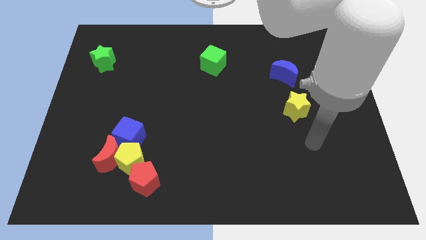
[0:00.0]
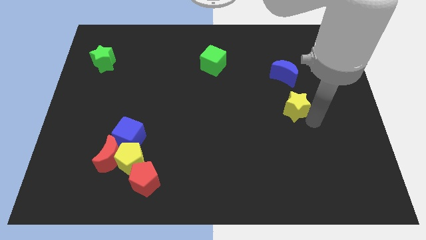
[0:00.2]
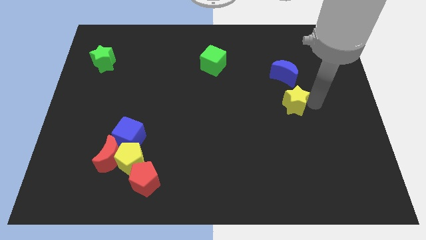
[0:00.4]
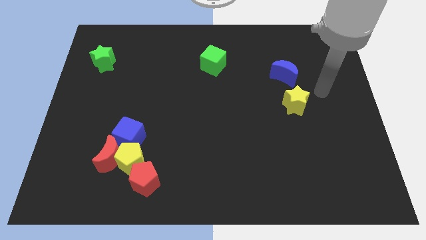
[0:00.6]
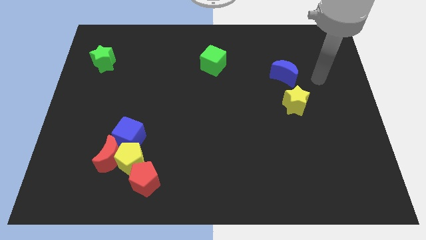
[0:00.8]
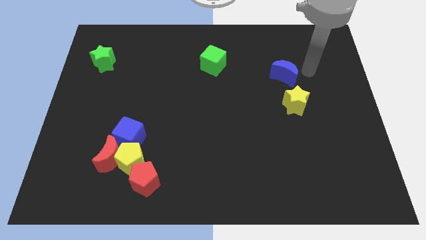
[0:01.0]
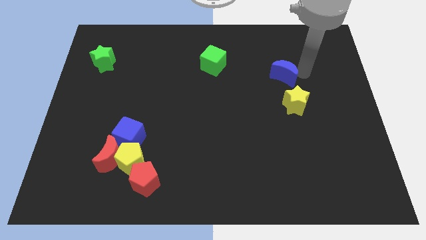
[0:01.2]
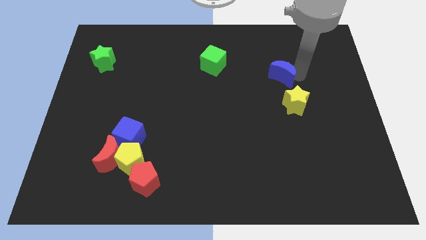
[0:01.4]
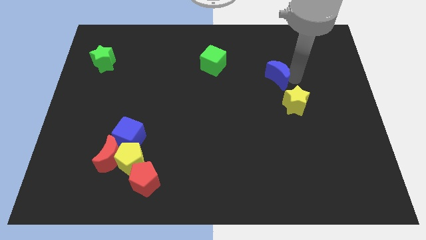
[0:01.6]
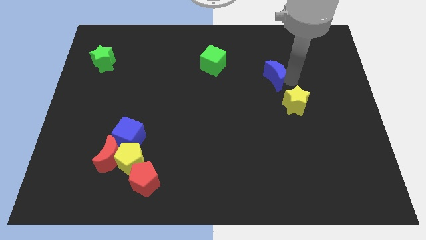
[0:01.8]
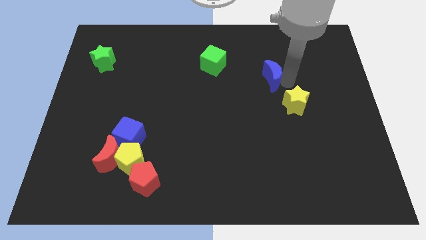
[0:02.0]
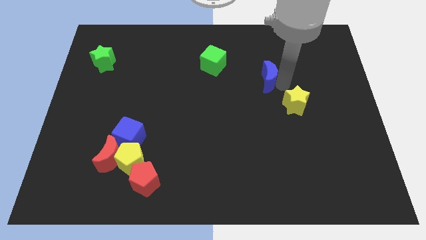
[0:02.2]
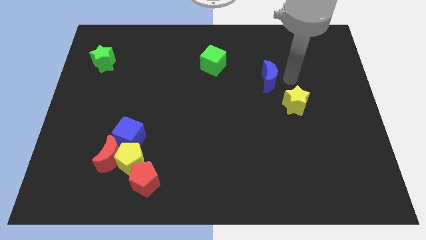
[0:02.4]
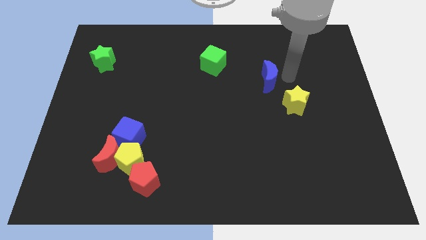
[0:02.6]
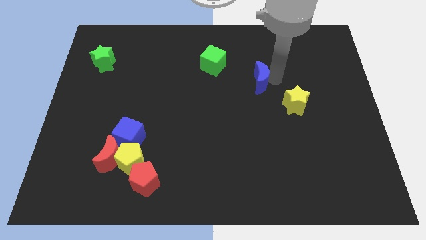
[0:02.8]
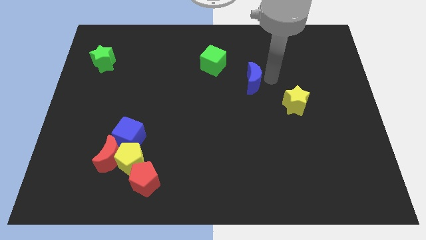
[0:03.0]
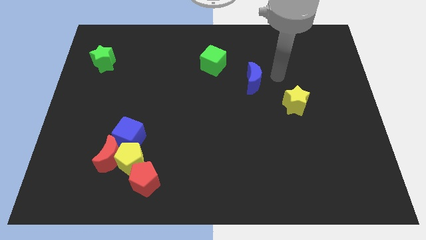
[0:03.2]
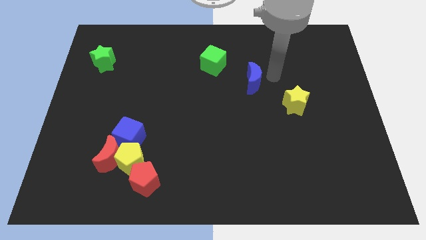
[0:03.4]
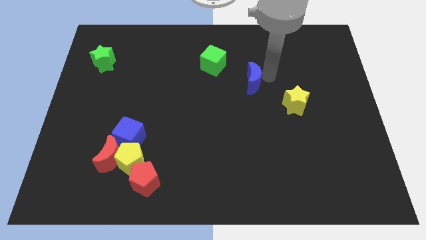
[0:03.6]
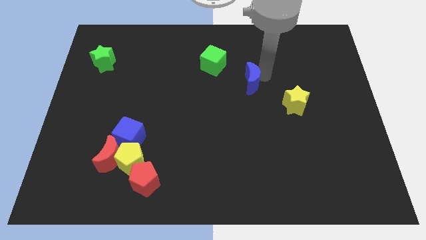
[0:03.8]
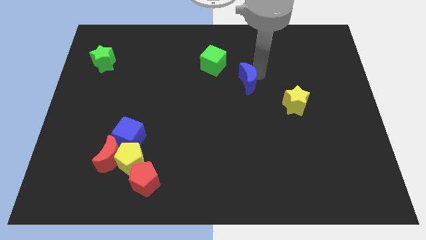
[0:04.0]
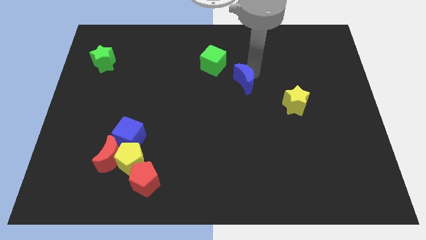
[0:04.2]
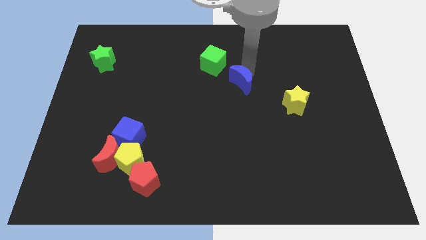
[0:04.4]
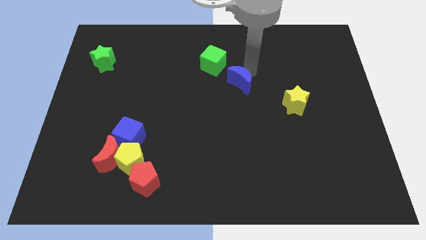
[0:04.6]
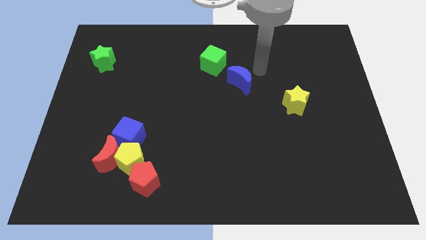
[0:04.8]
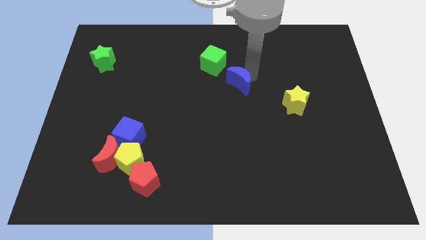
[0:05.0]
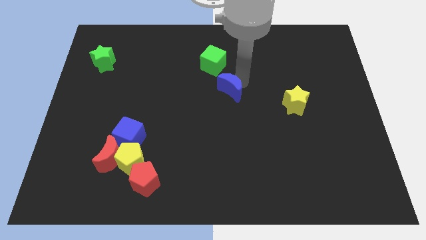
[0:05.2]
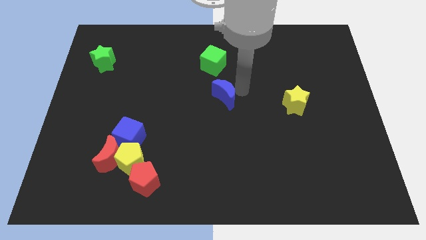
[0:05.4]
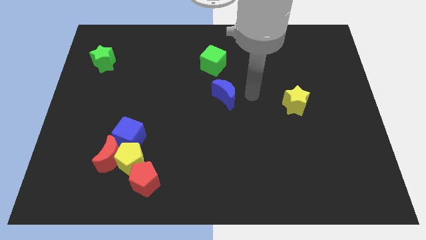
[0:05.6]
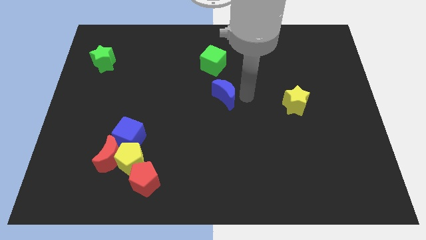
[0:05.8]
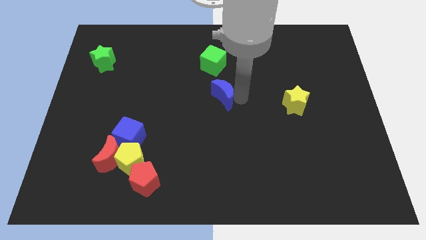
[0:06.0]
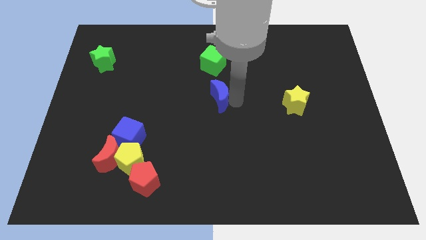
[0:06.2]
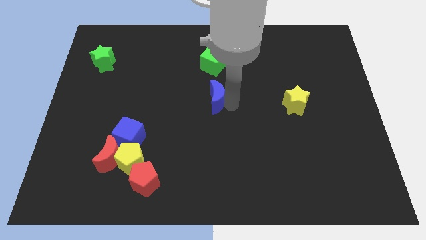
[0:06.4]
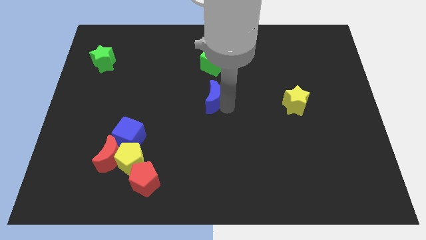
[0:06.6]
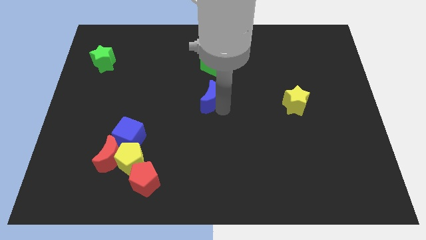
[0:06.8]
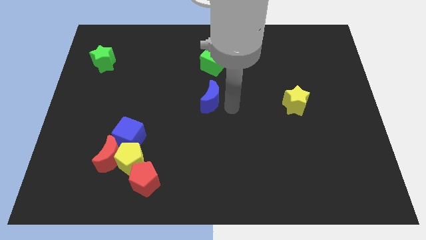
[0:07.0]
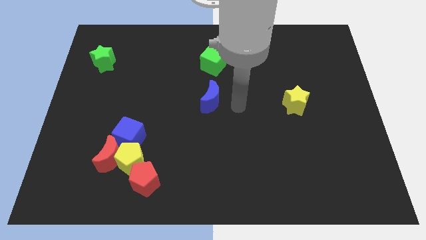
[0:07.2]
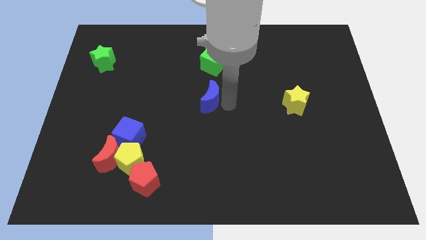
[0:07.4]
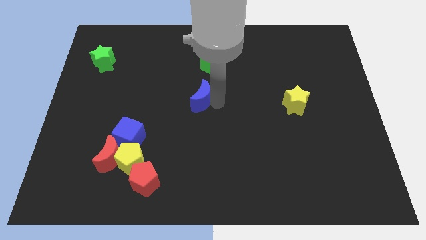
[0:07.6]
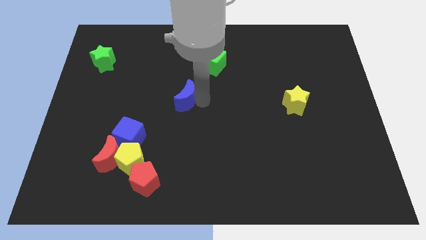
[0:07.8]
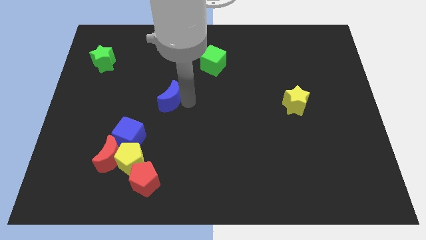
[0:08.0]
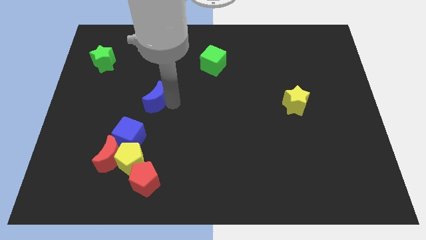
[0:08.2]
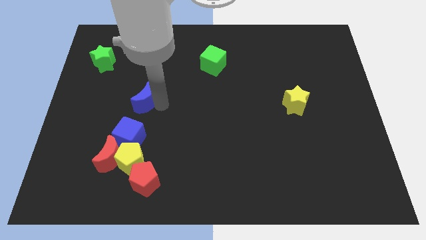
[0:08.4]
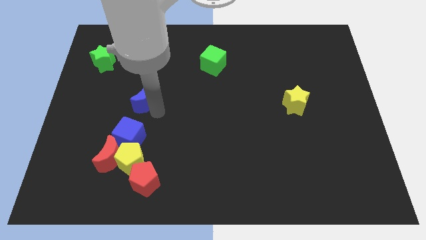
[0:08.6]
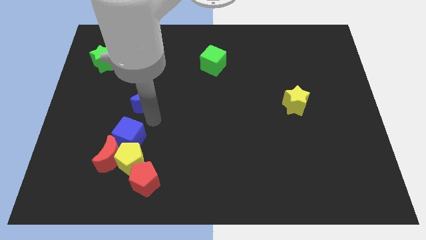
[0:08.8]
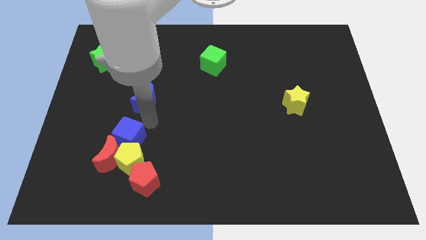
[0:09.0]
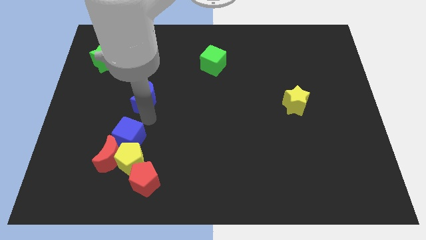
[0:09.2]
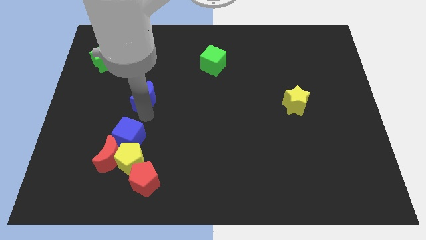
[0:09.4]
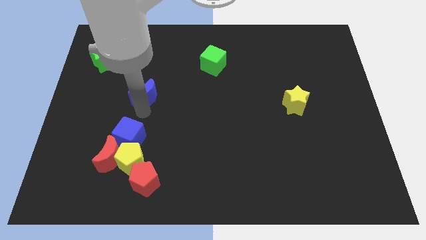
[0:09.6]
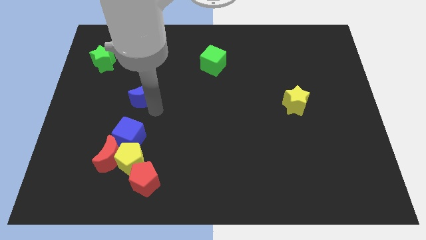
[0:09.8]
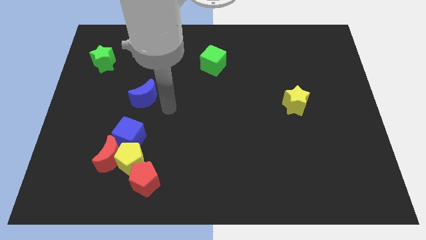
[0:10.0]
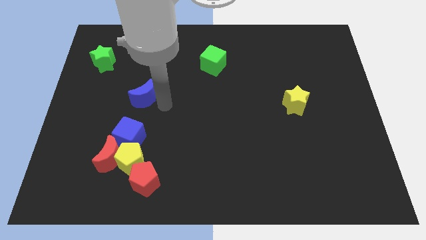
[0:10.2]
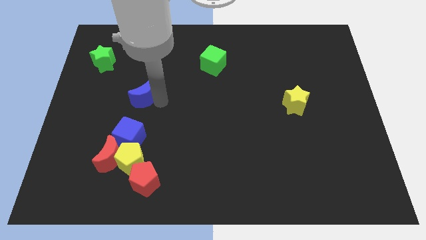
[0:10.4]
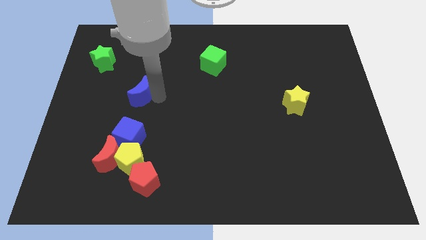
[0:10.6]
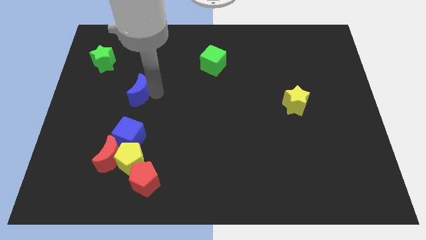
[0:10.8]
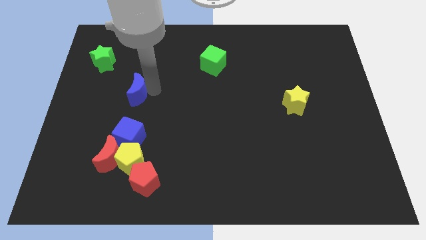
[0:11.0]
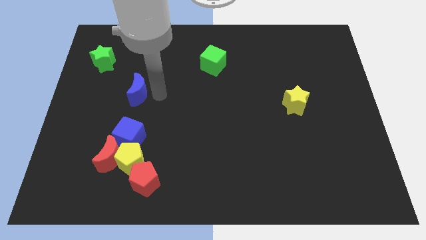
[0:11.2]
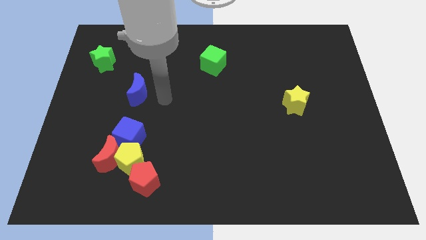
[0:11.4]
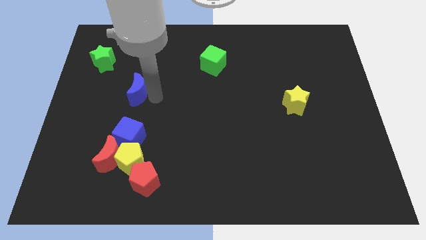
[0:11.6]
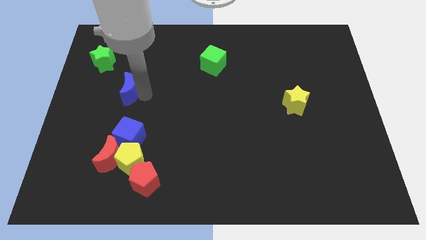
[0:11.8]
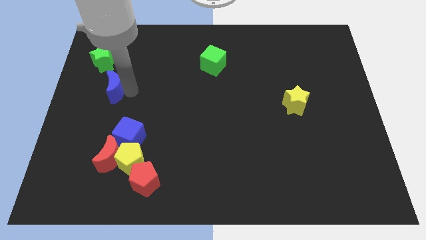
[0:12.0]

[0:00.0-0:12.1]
push the blue moon to the bottom side of the green star

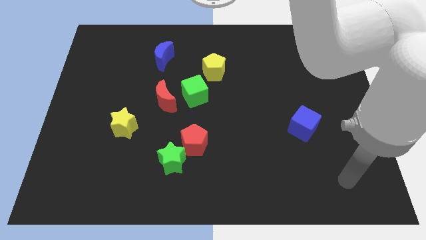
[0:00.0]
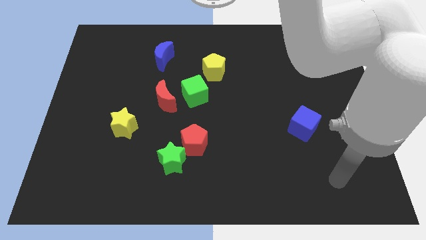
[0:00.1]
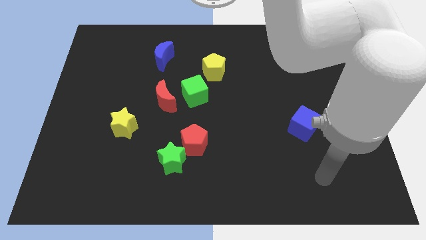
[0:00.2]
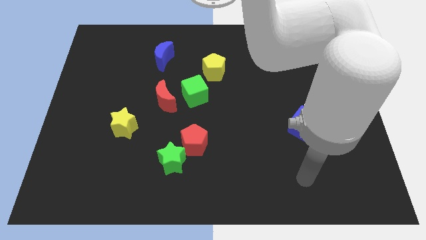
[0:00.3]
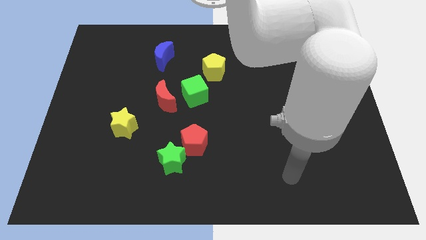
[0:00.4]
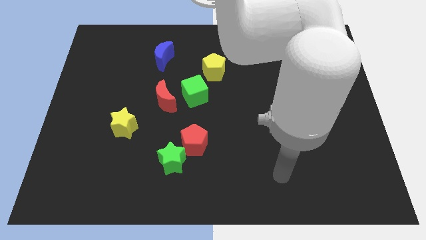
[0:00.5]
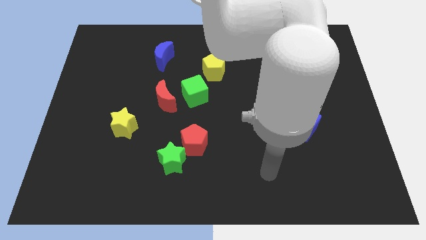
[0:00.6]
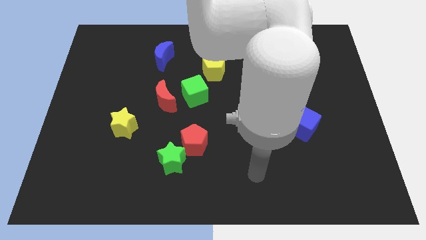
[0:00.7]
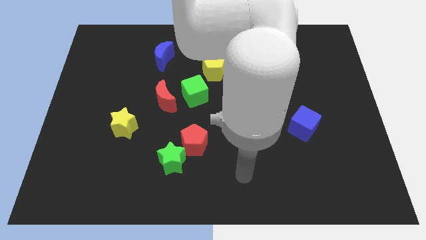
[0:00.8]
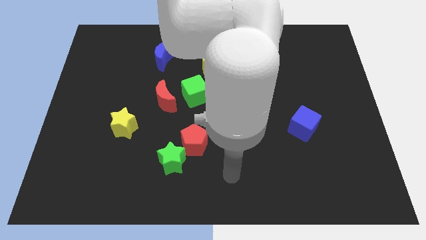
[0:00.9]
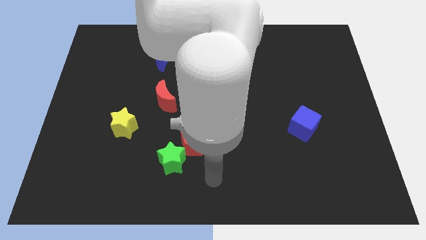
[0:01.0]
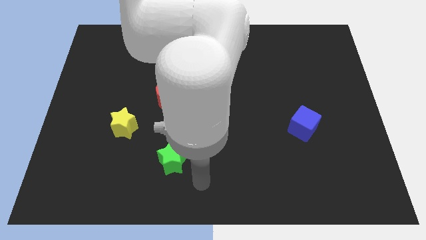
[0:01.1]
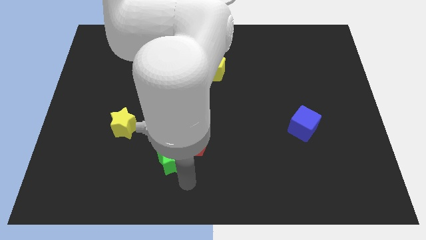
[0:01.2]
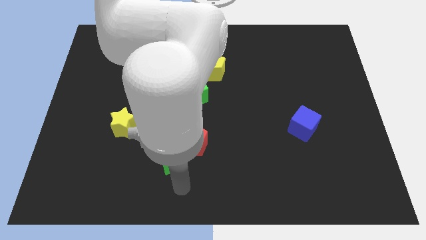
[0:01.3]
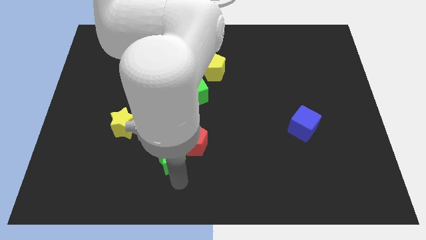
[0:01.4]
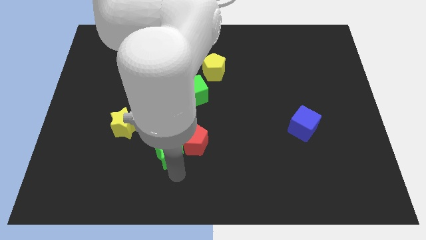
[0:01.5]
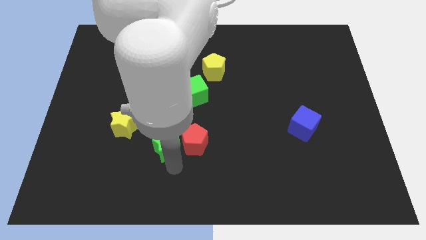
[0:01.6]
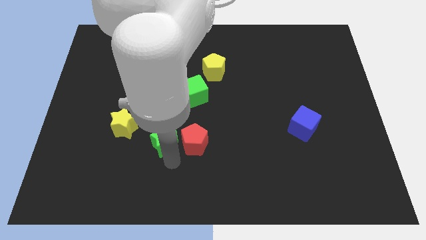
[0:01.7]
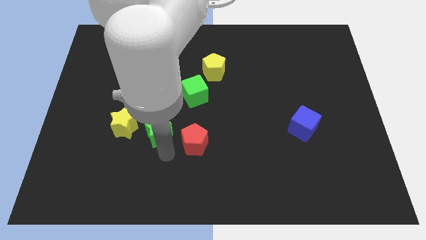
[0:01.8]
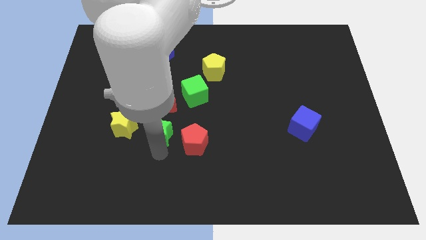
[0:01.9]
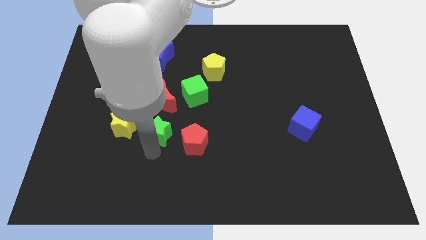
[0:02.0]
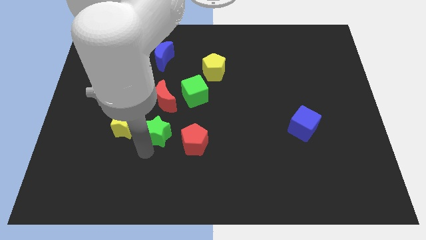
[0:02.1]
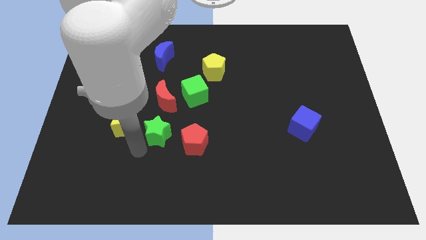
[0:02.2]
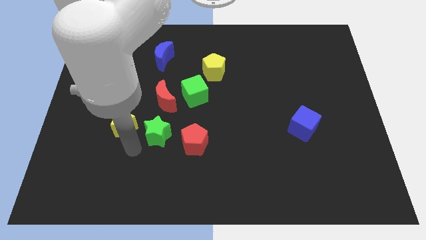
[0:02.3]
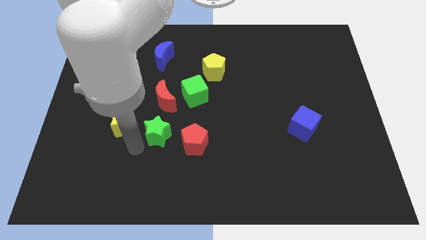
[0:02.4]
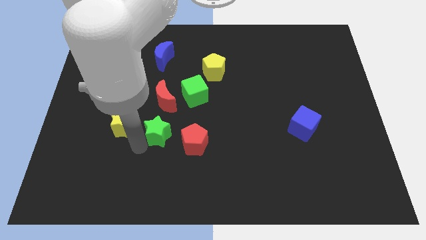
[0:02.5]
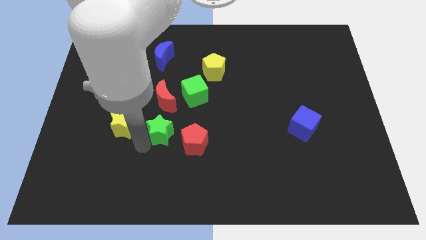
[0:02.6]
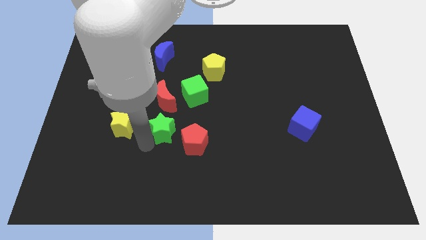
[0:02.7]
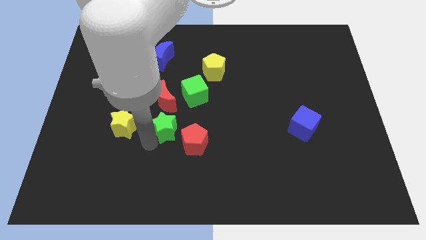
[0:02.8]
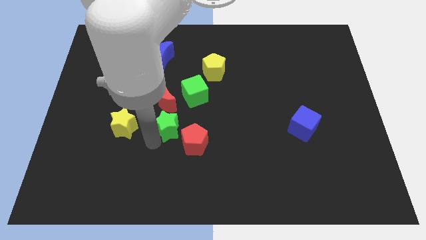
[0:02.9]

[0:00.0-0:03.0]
put the green star to the bottom right side of the red moon
